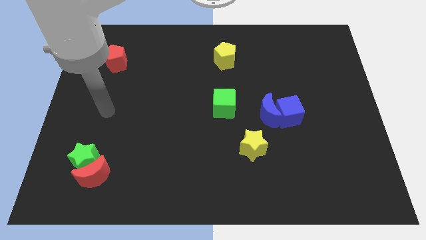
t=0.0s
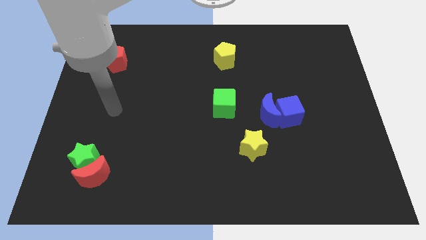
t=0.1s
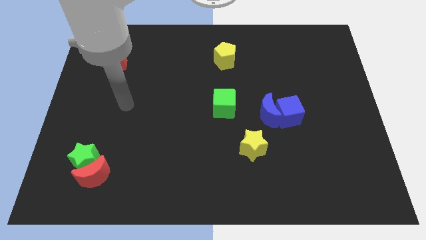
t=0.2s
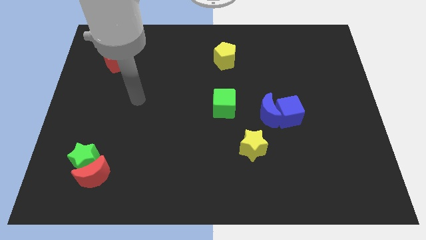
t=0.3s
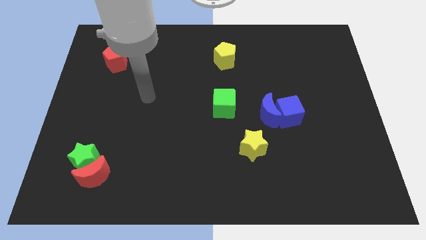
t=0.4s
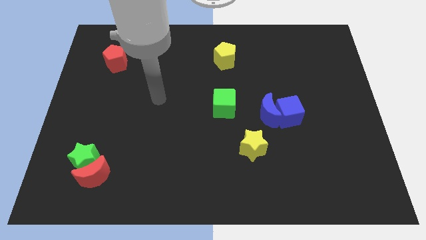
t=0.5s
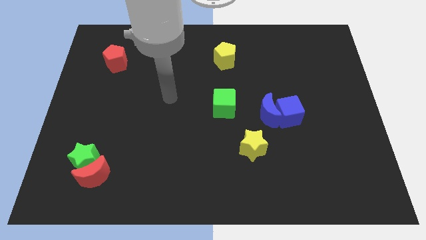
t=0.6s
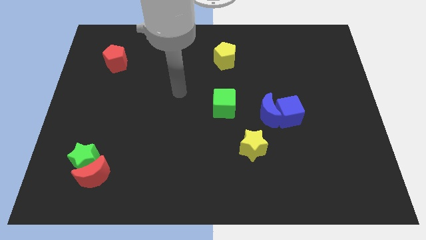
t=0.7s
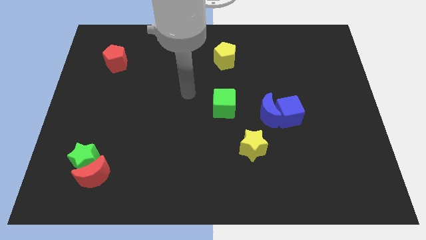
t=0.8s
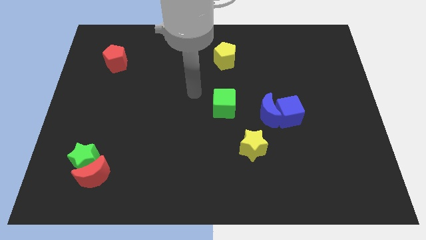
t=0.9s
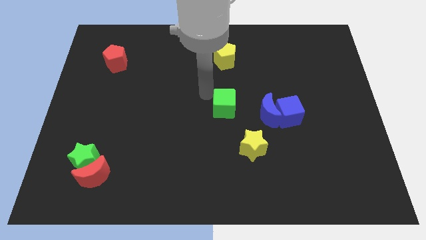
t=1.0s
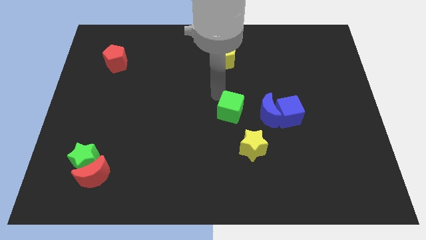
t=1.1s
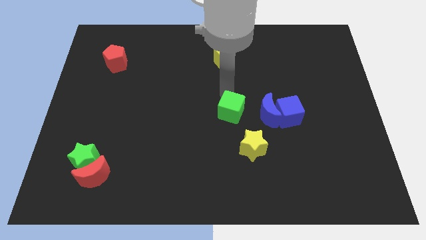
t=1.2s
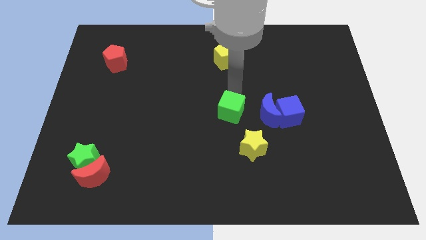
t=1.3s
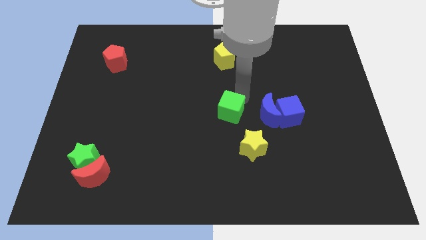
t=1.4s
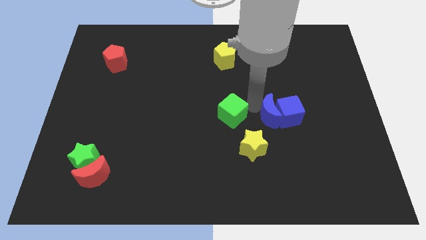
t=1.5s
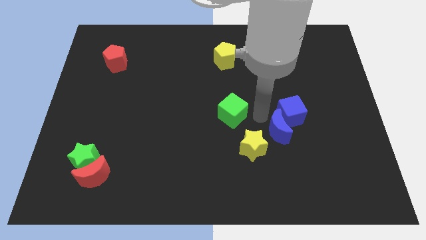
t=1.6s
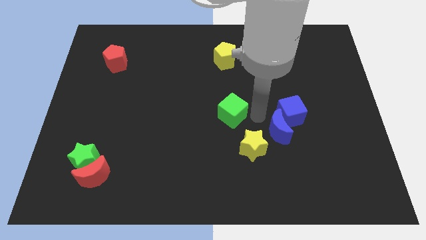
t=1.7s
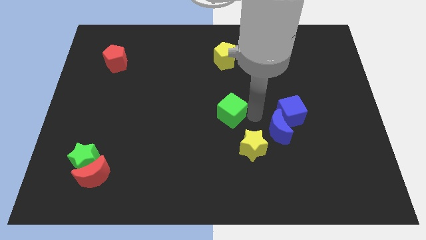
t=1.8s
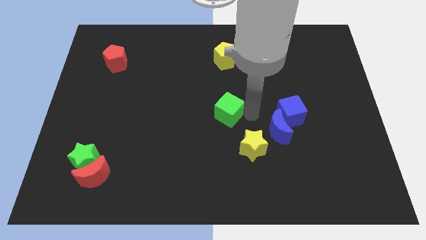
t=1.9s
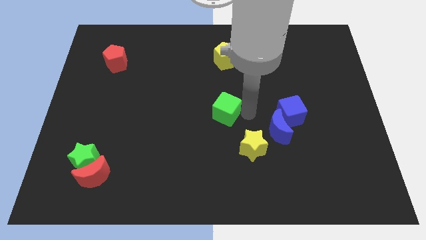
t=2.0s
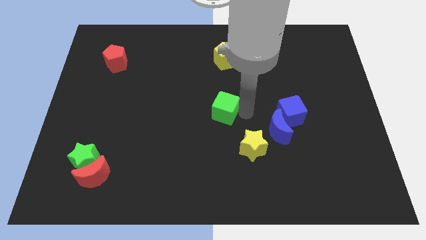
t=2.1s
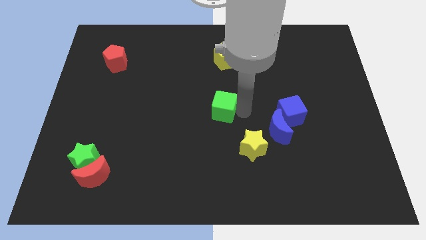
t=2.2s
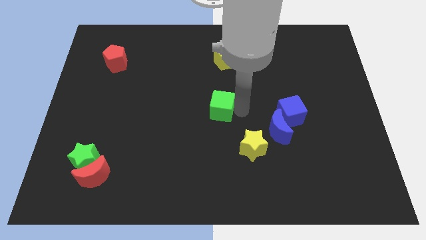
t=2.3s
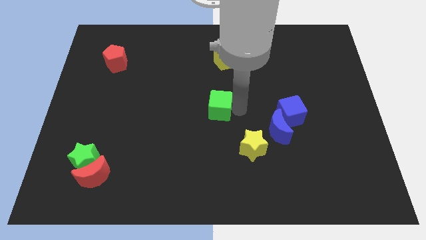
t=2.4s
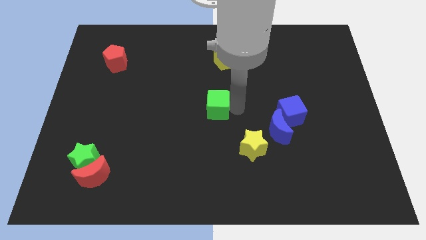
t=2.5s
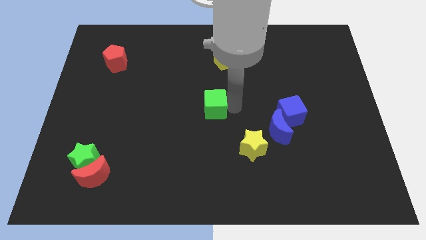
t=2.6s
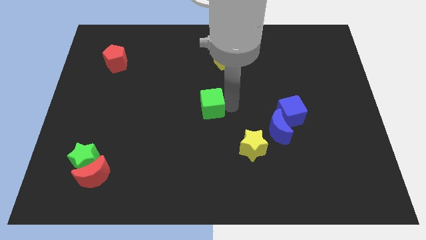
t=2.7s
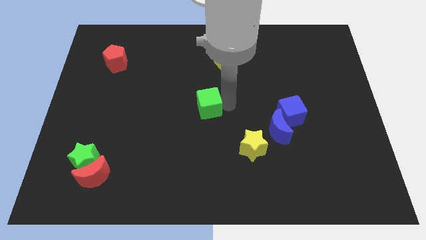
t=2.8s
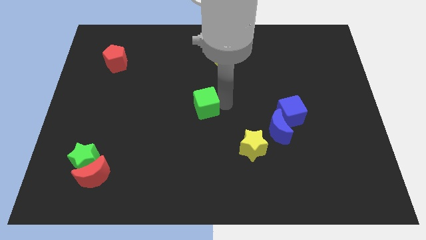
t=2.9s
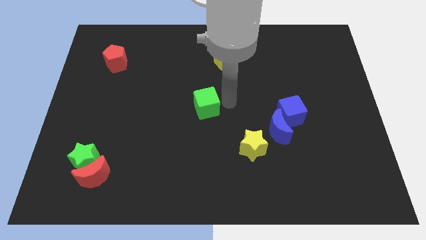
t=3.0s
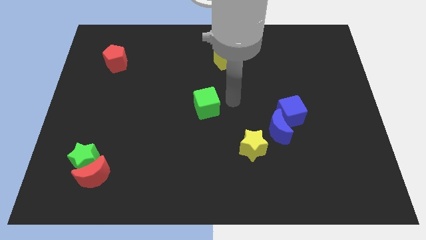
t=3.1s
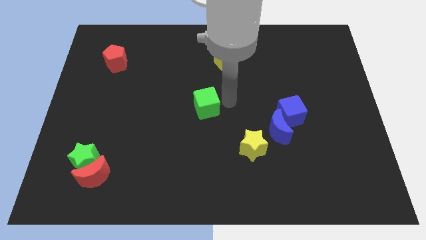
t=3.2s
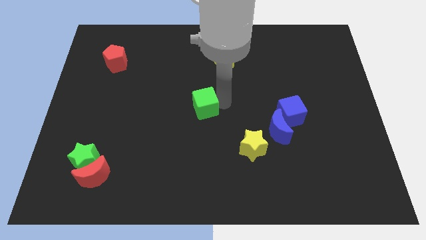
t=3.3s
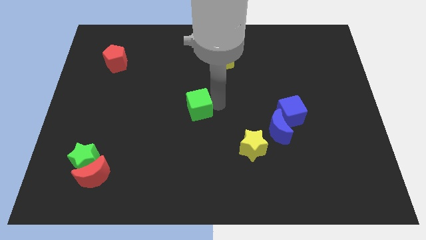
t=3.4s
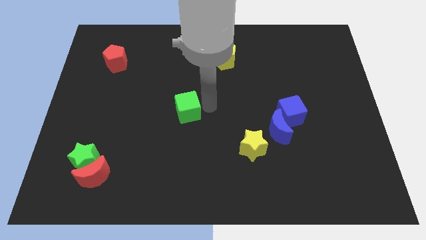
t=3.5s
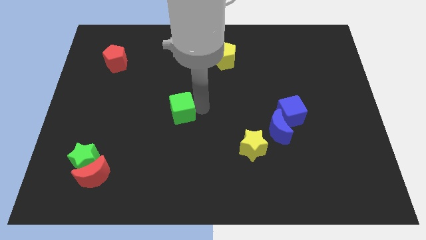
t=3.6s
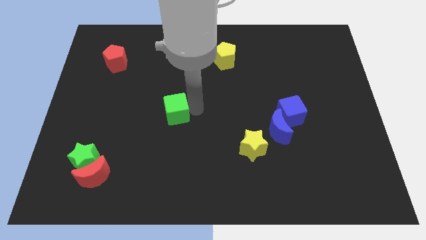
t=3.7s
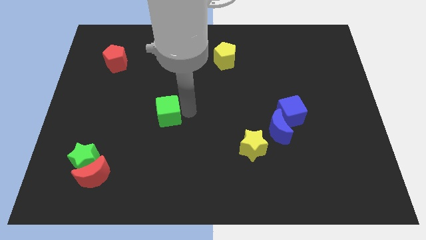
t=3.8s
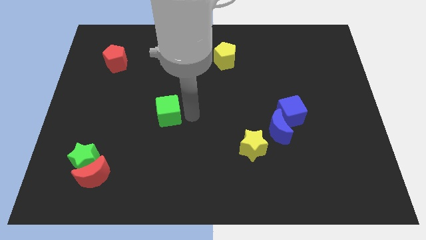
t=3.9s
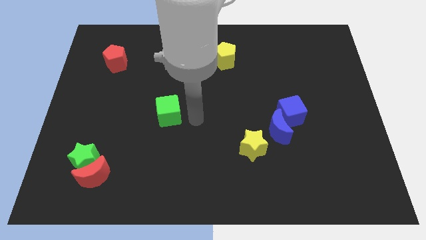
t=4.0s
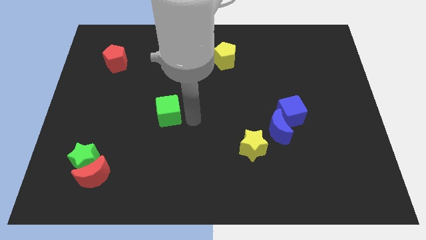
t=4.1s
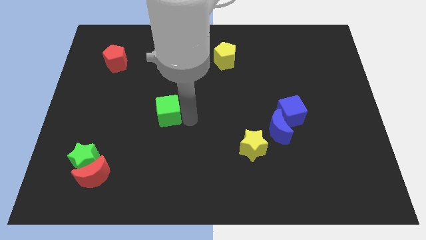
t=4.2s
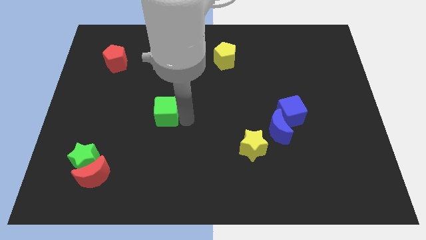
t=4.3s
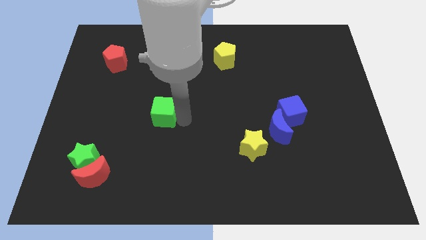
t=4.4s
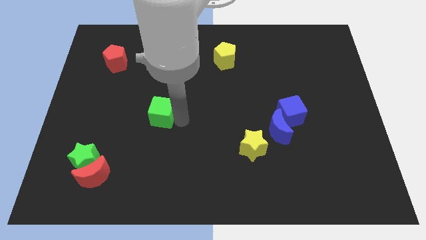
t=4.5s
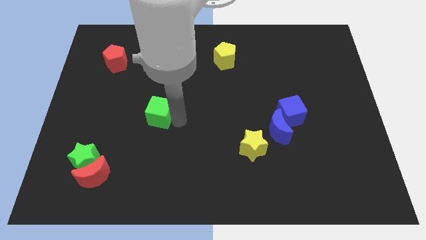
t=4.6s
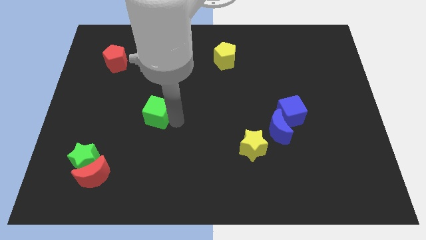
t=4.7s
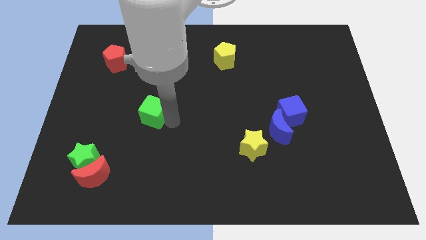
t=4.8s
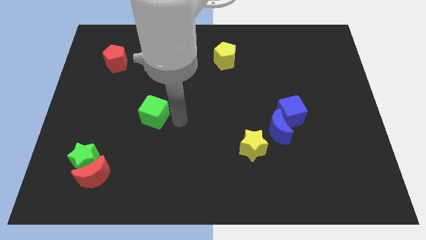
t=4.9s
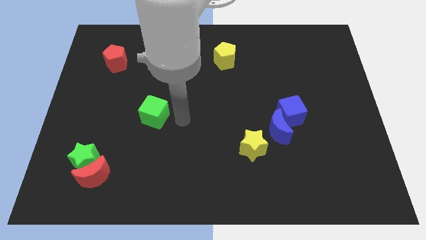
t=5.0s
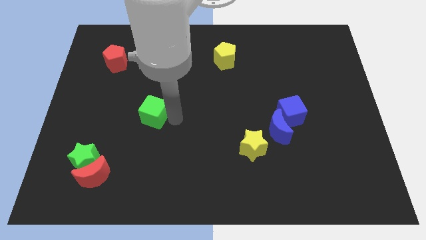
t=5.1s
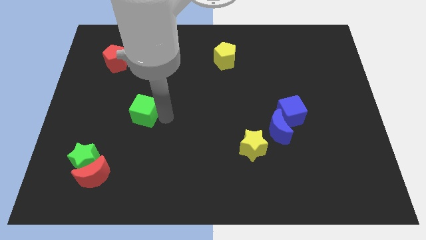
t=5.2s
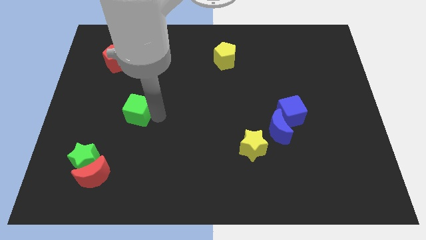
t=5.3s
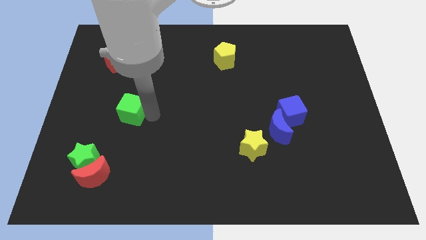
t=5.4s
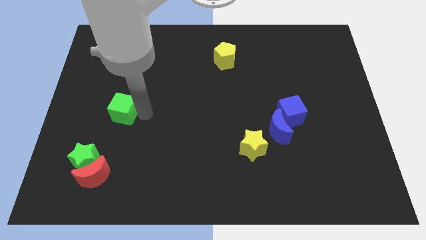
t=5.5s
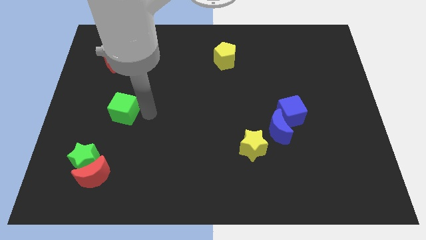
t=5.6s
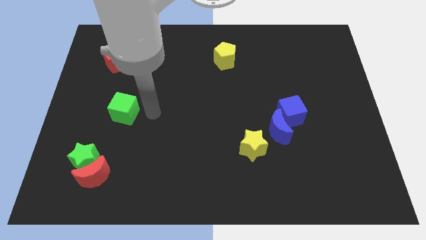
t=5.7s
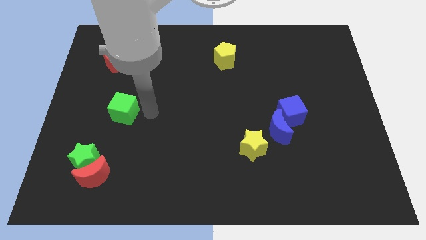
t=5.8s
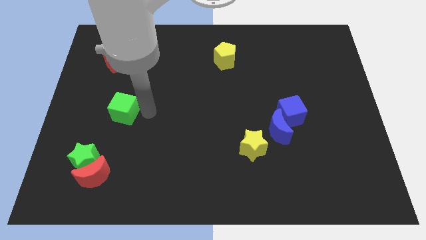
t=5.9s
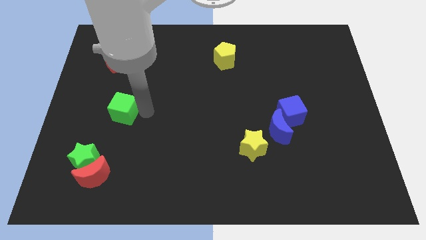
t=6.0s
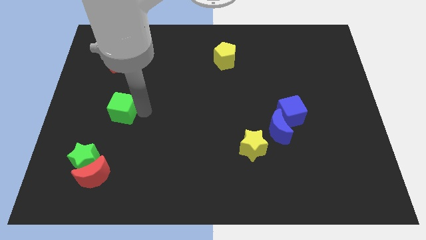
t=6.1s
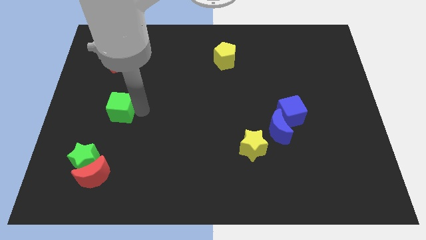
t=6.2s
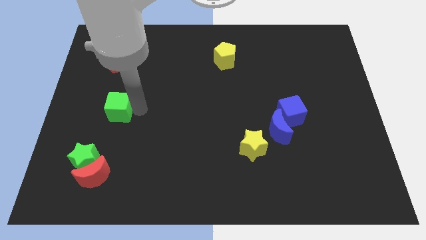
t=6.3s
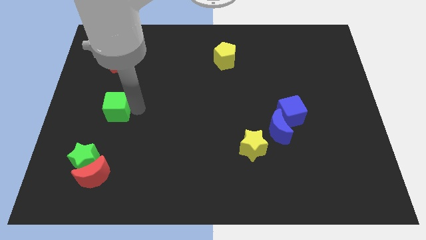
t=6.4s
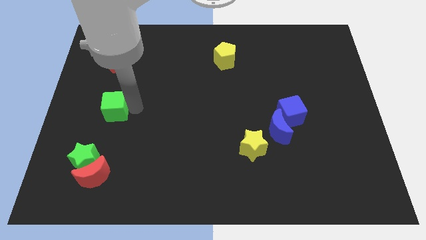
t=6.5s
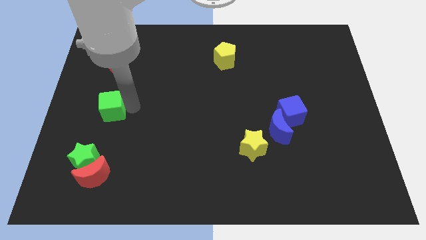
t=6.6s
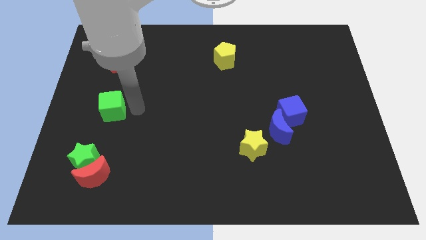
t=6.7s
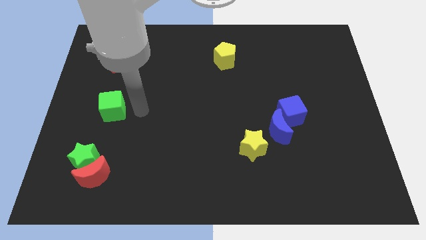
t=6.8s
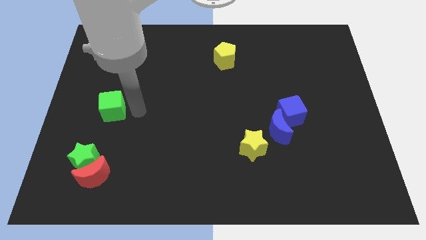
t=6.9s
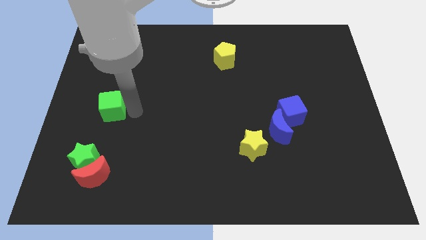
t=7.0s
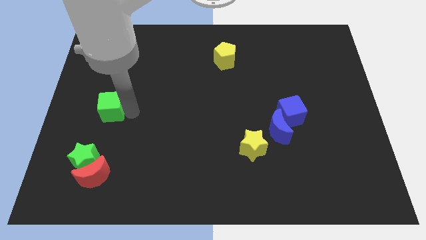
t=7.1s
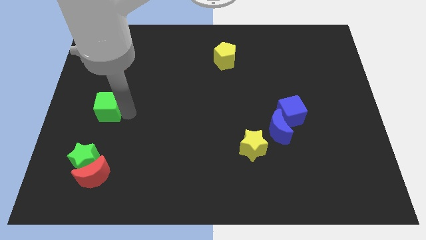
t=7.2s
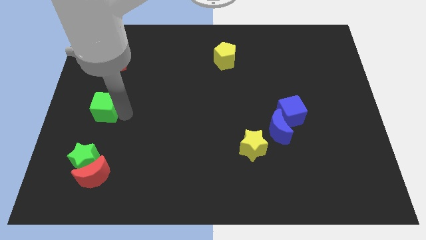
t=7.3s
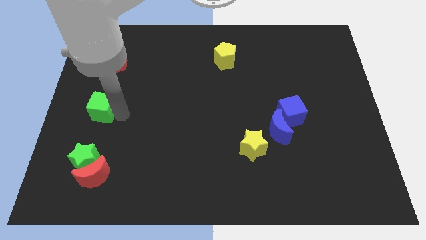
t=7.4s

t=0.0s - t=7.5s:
move the green cube to the left side
